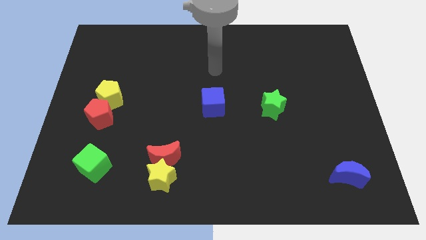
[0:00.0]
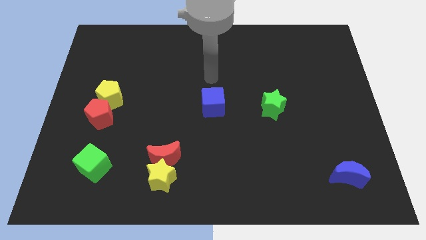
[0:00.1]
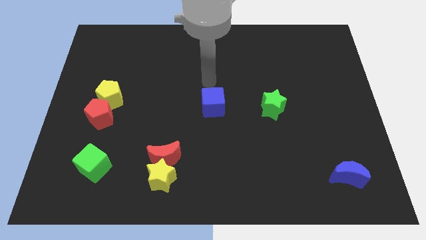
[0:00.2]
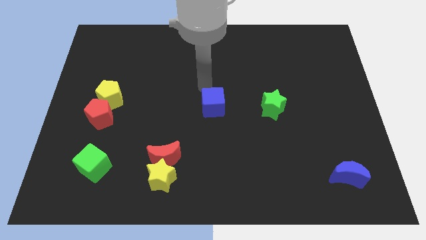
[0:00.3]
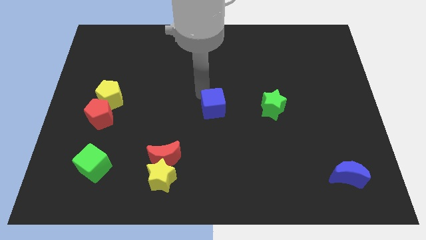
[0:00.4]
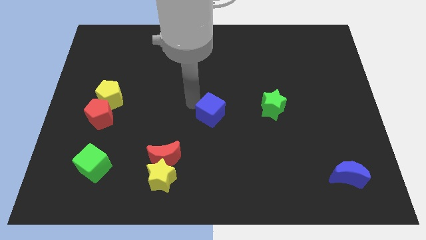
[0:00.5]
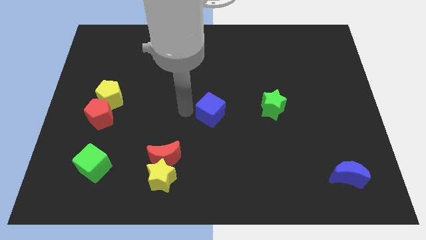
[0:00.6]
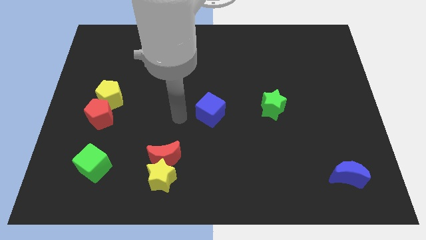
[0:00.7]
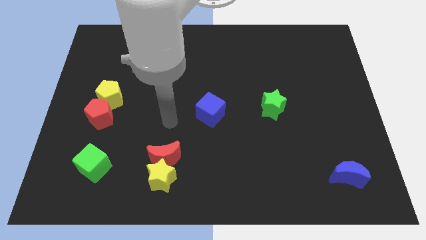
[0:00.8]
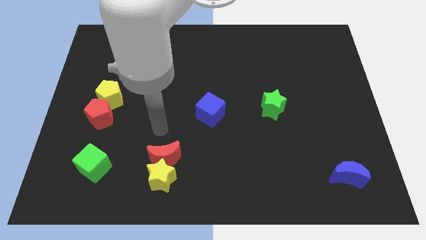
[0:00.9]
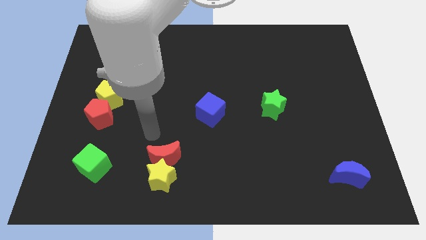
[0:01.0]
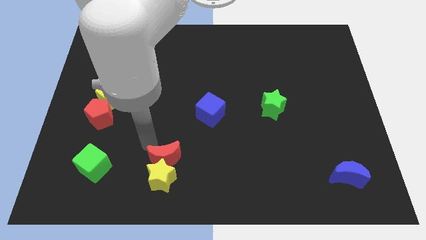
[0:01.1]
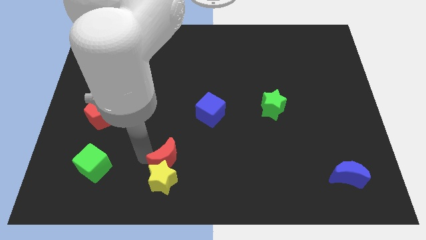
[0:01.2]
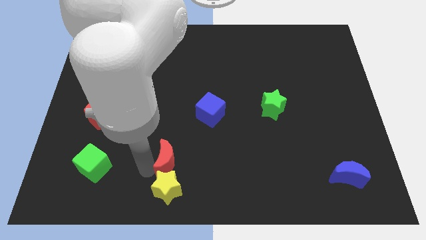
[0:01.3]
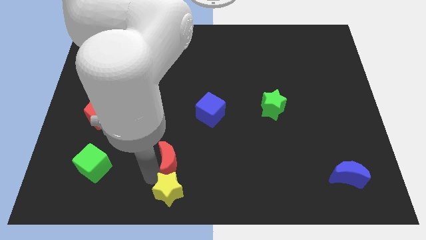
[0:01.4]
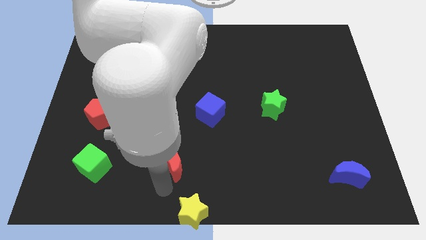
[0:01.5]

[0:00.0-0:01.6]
move the red moon away from the yellow star

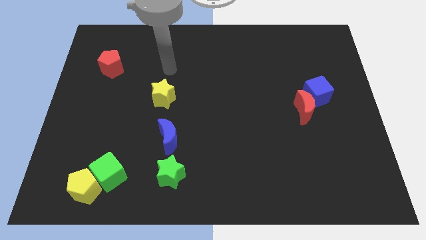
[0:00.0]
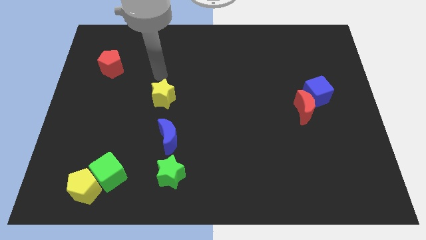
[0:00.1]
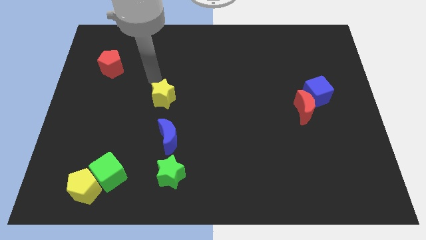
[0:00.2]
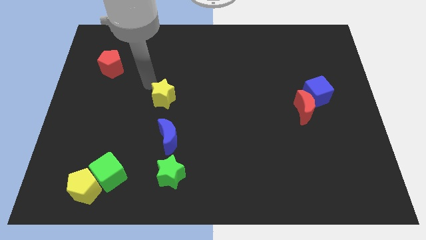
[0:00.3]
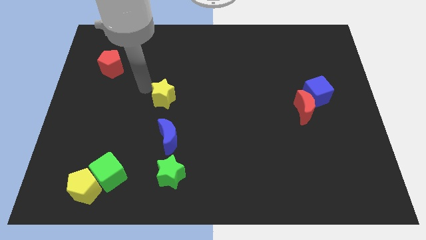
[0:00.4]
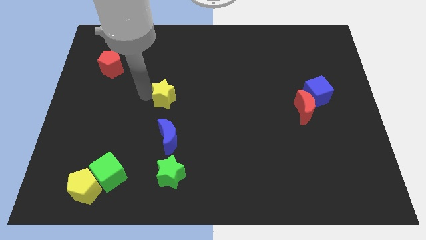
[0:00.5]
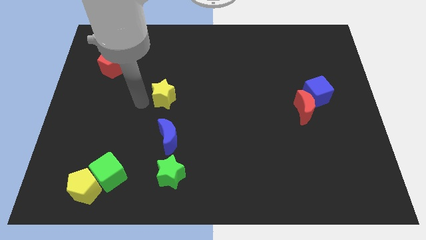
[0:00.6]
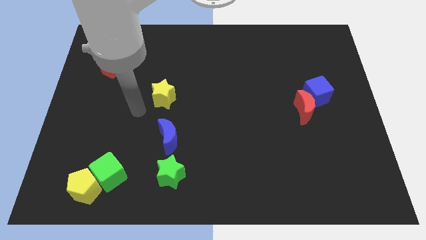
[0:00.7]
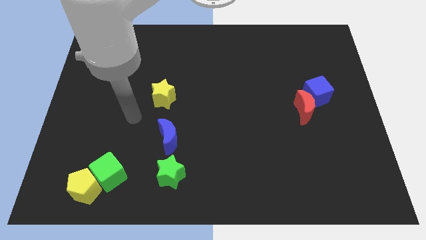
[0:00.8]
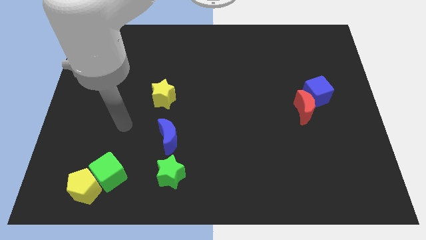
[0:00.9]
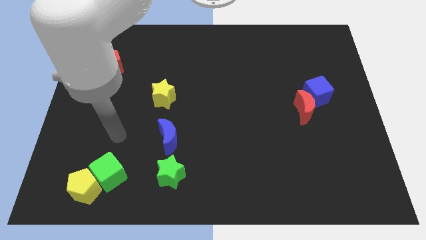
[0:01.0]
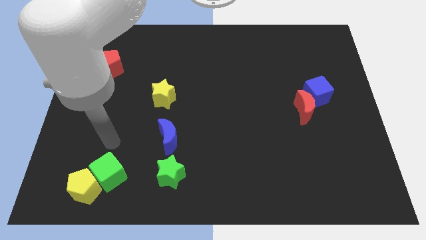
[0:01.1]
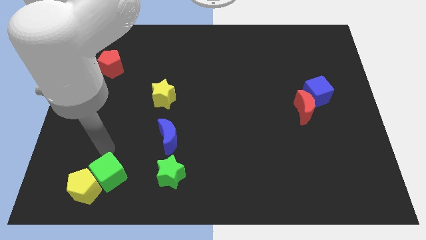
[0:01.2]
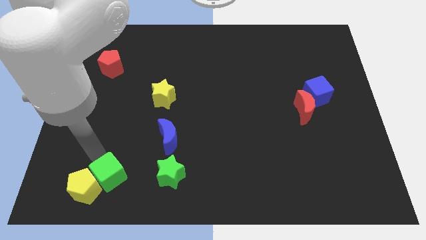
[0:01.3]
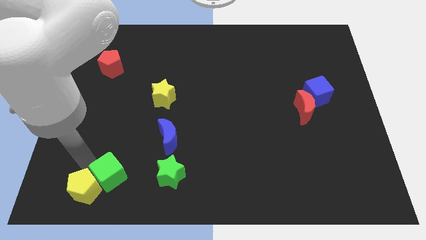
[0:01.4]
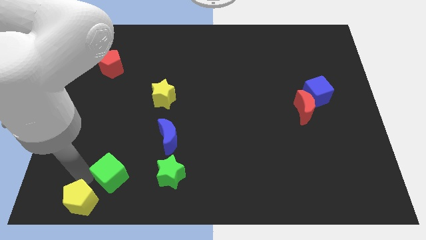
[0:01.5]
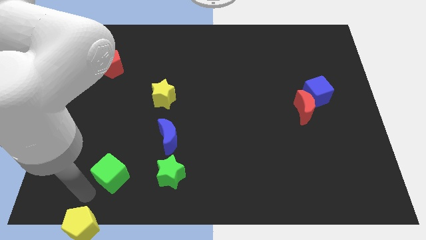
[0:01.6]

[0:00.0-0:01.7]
pull the green cube apart from the yellow pentagon

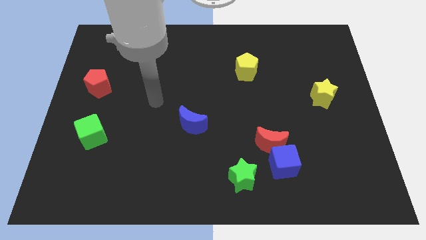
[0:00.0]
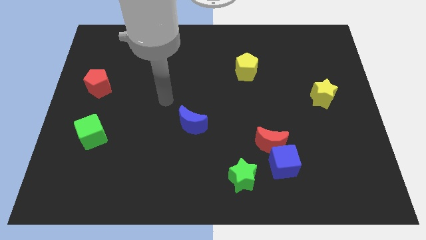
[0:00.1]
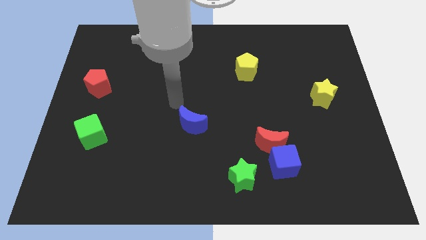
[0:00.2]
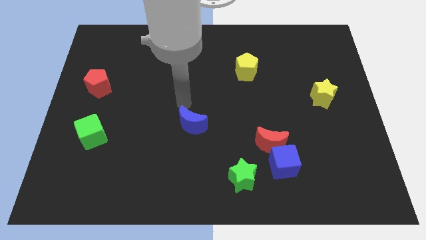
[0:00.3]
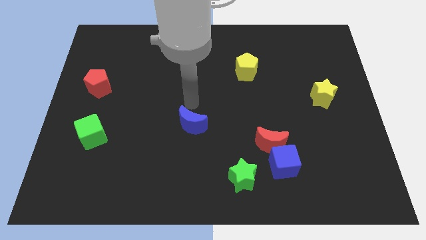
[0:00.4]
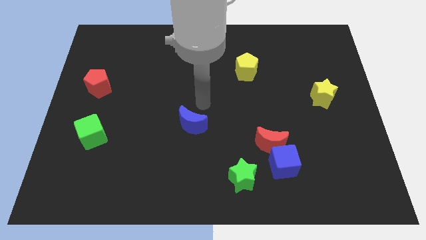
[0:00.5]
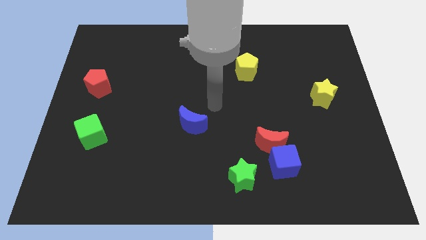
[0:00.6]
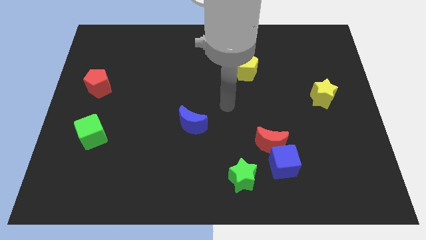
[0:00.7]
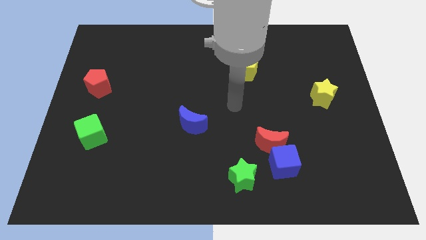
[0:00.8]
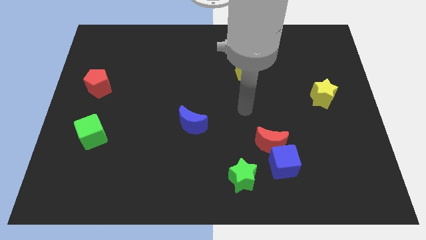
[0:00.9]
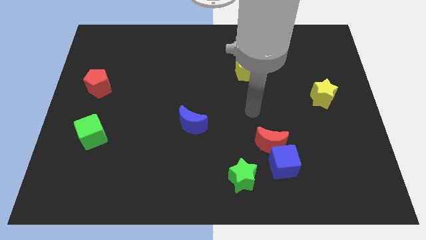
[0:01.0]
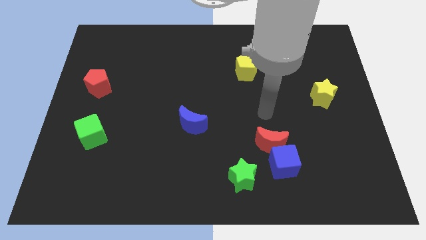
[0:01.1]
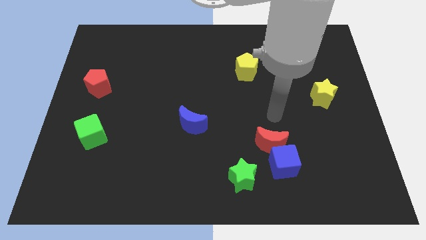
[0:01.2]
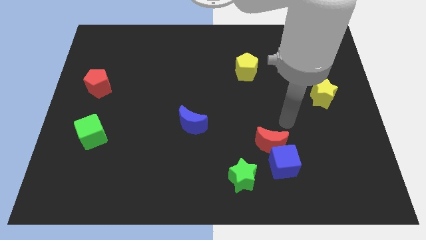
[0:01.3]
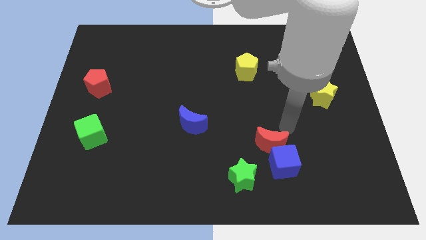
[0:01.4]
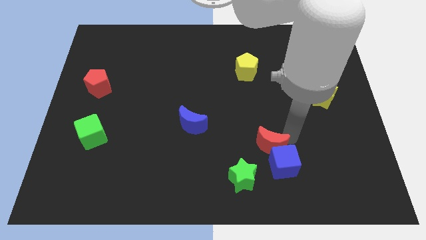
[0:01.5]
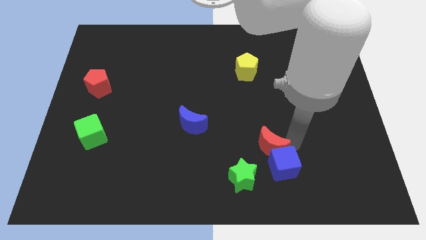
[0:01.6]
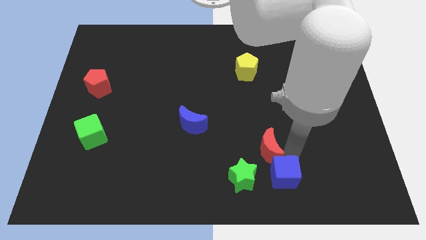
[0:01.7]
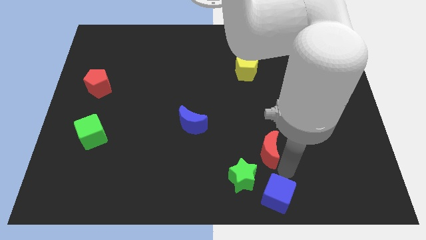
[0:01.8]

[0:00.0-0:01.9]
move the red moon away from the blue cube

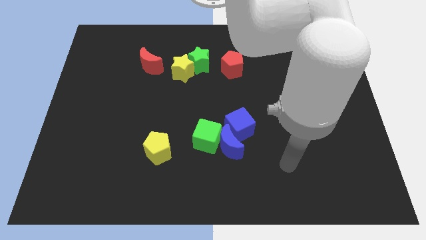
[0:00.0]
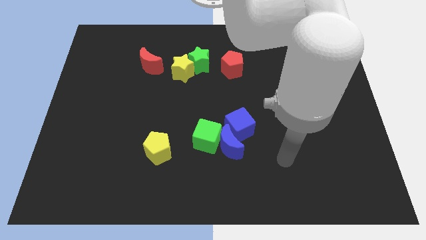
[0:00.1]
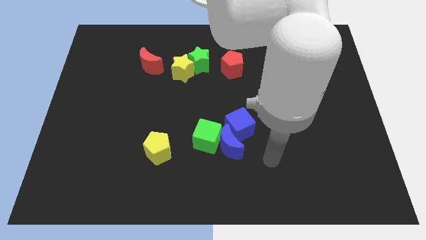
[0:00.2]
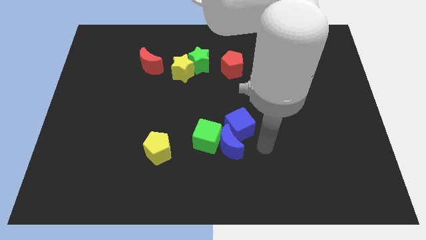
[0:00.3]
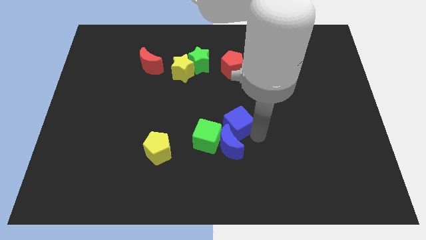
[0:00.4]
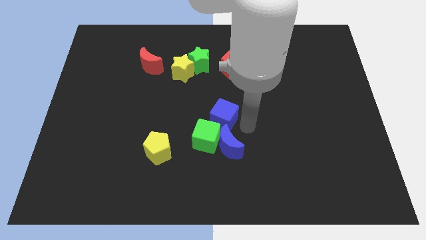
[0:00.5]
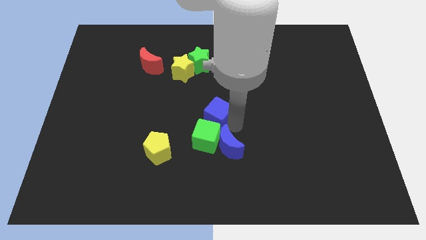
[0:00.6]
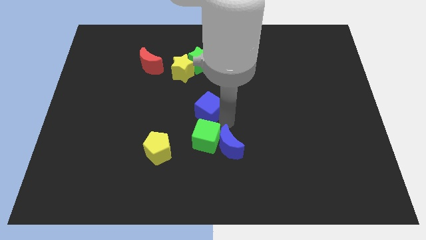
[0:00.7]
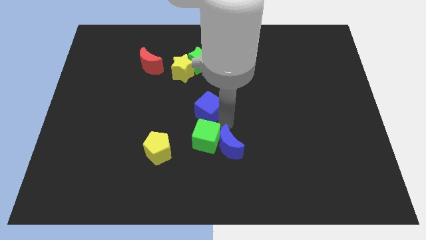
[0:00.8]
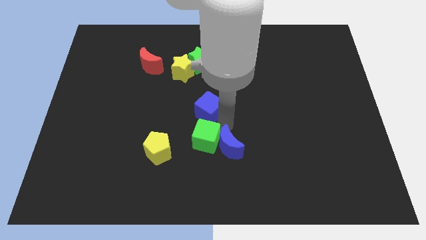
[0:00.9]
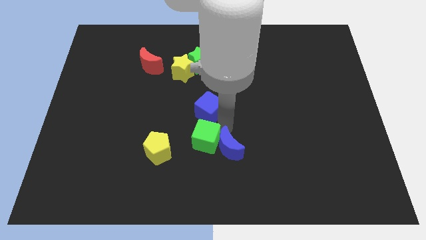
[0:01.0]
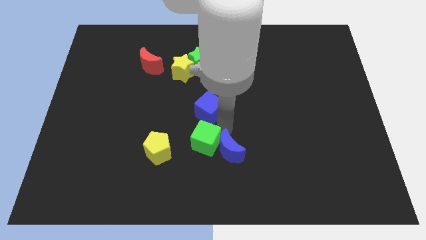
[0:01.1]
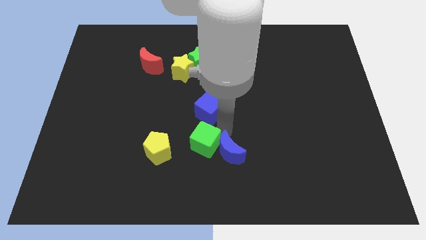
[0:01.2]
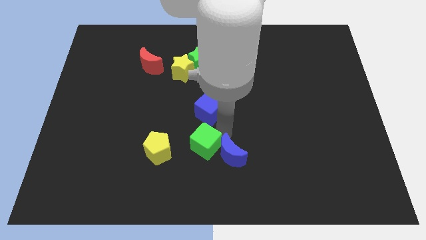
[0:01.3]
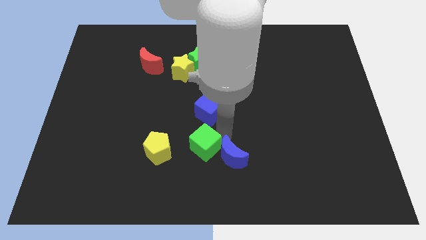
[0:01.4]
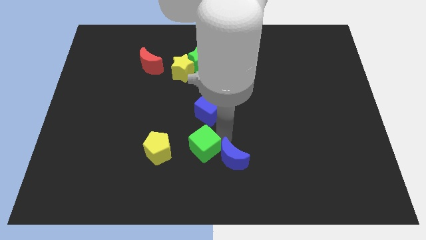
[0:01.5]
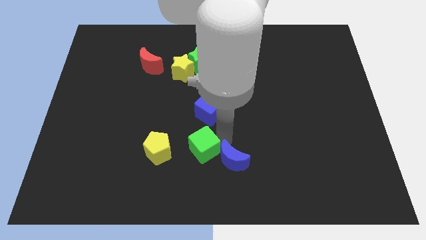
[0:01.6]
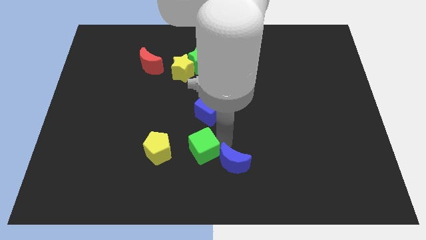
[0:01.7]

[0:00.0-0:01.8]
move the blue moon away from the green cube and blue cube

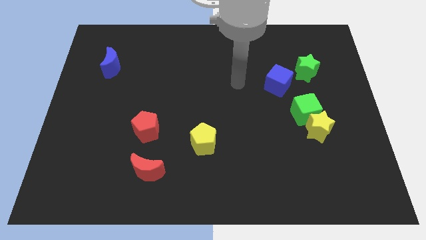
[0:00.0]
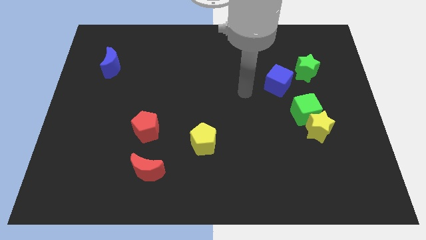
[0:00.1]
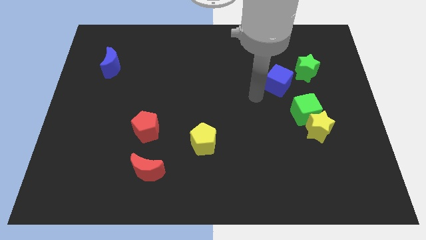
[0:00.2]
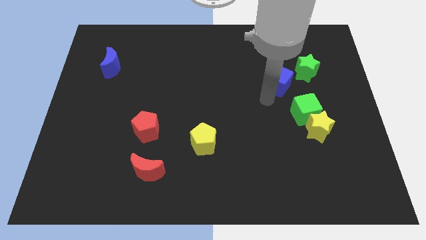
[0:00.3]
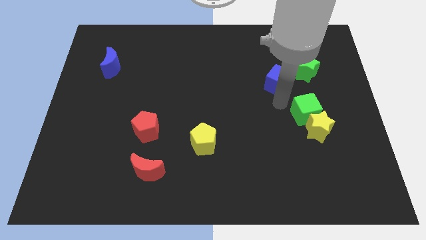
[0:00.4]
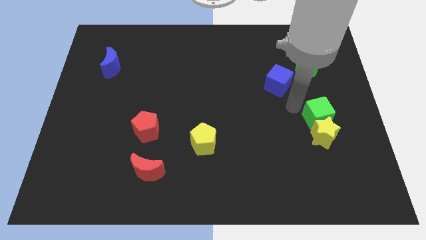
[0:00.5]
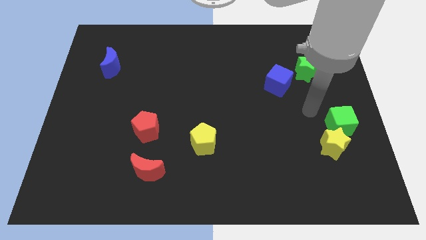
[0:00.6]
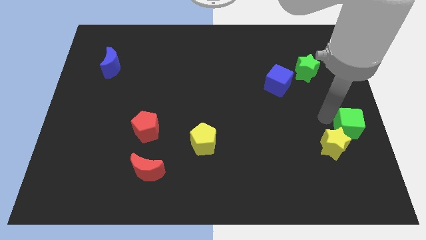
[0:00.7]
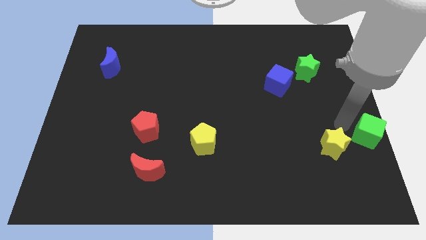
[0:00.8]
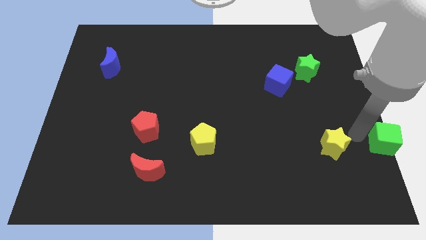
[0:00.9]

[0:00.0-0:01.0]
move the yellow star away from the green cube

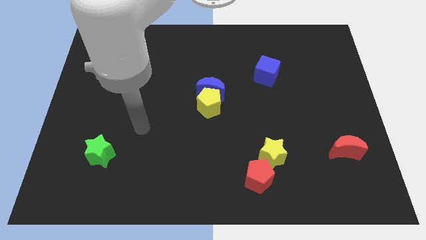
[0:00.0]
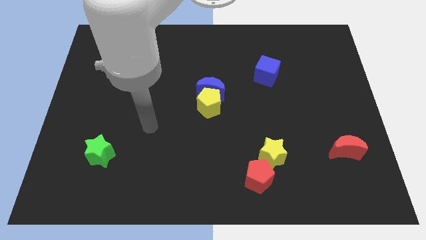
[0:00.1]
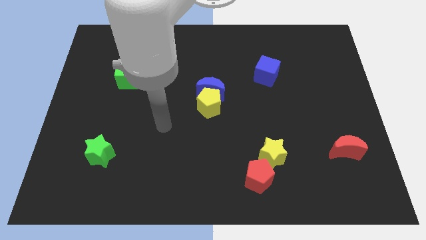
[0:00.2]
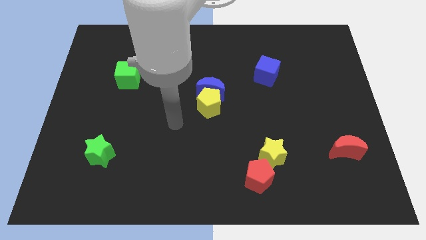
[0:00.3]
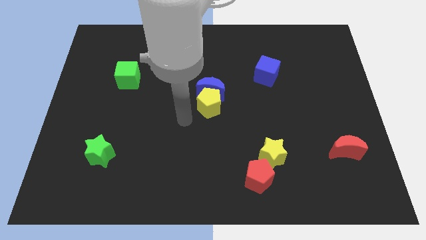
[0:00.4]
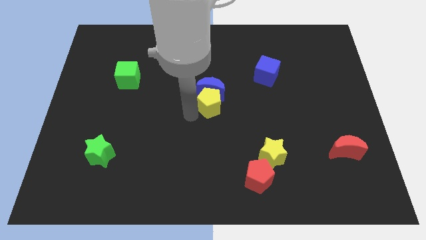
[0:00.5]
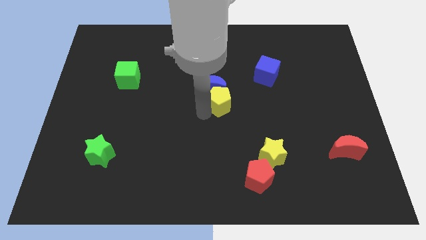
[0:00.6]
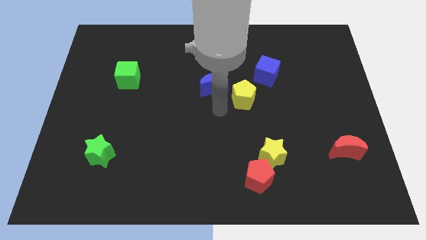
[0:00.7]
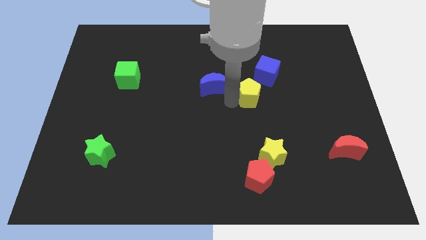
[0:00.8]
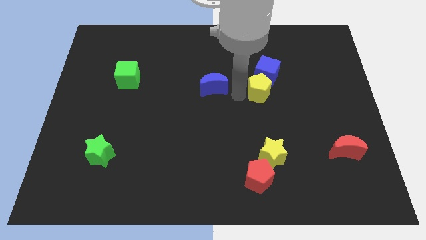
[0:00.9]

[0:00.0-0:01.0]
pull the blue moon apart from the yellow pentagon

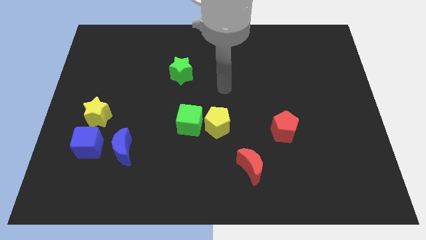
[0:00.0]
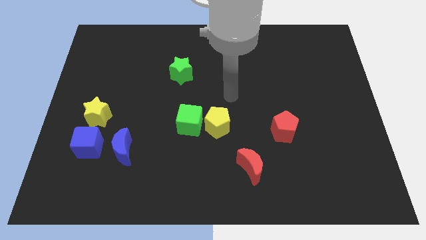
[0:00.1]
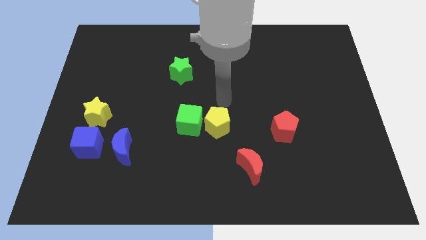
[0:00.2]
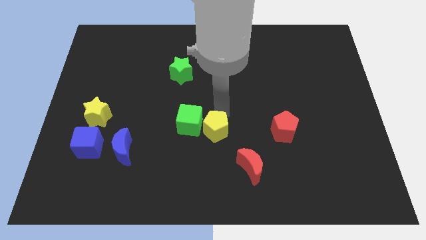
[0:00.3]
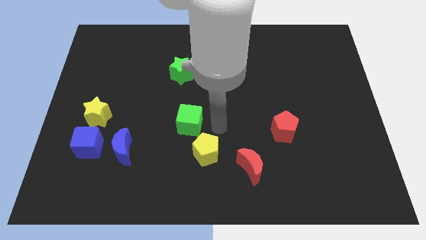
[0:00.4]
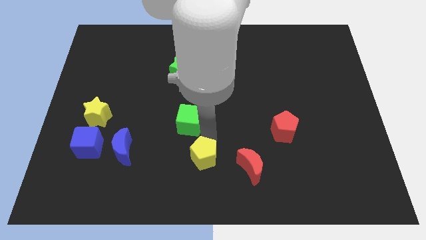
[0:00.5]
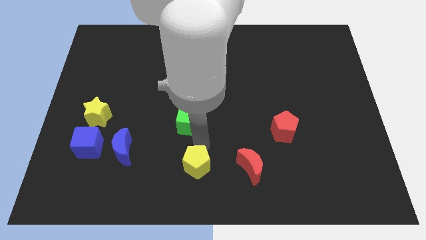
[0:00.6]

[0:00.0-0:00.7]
separate the green cube from the yellow pentagon
